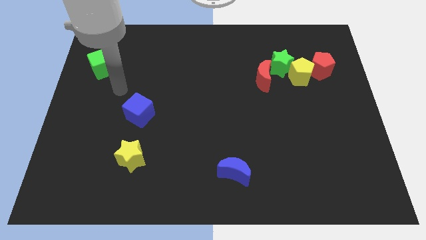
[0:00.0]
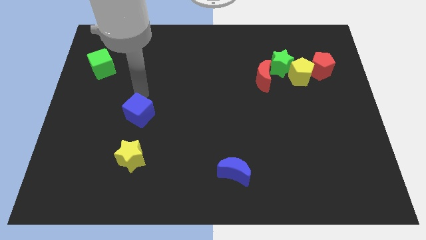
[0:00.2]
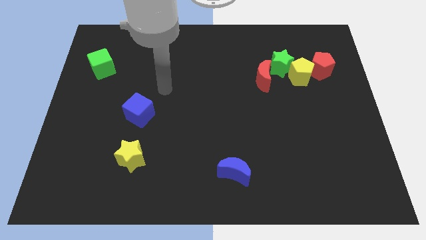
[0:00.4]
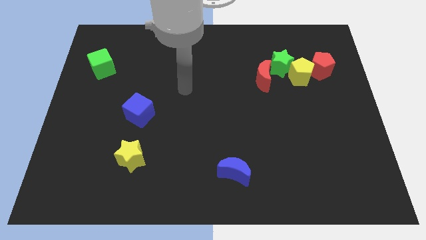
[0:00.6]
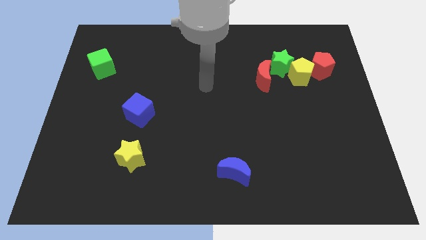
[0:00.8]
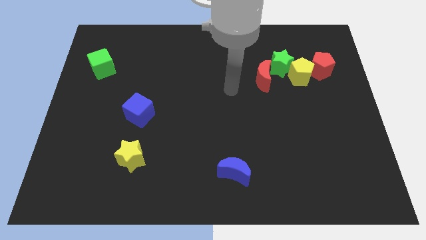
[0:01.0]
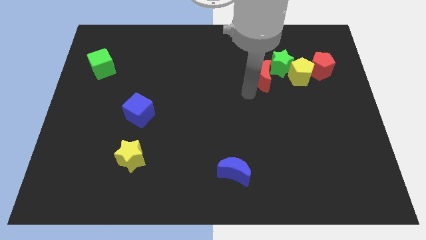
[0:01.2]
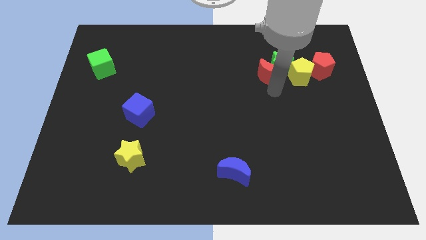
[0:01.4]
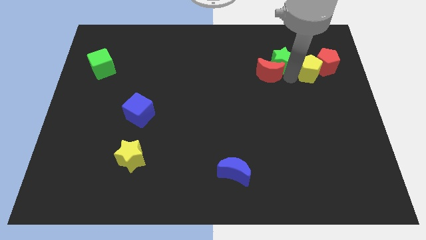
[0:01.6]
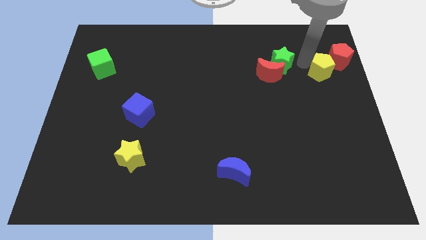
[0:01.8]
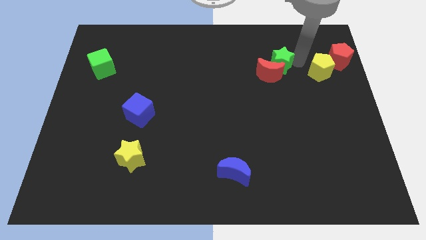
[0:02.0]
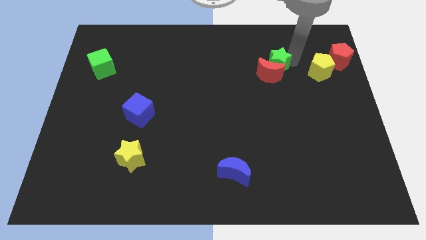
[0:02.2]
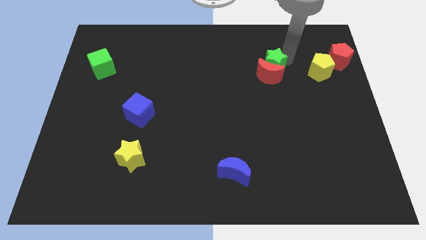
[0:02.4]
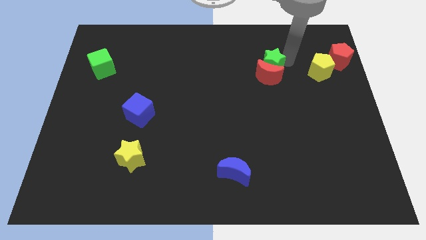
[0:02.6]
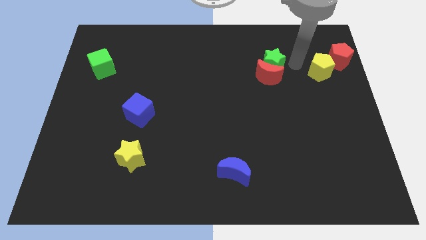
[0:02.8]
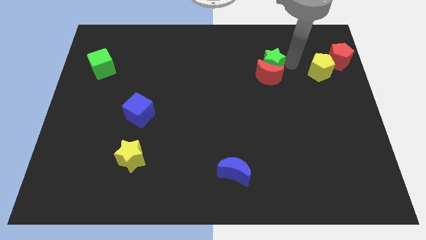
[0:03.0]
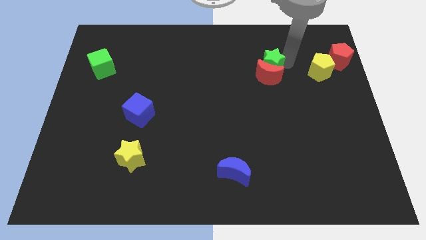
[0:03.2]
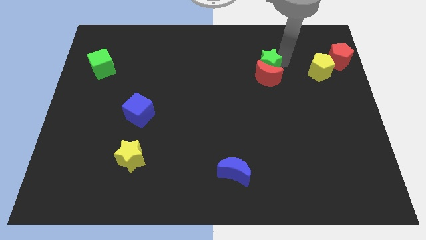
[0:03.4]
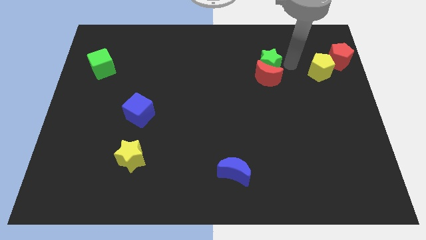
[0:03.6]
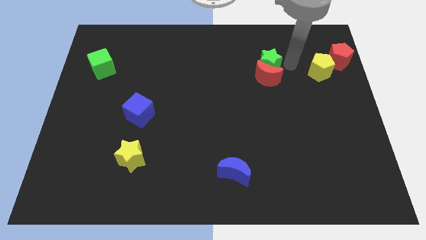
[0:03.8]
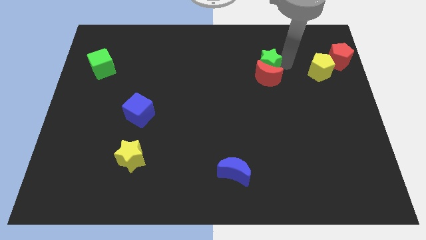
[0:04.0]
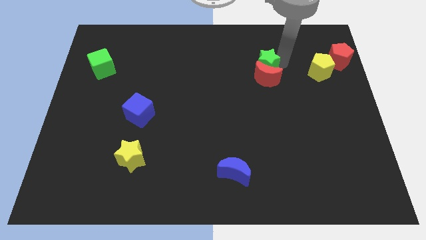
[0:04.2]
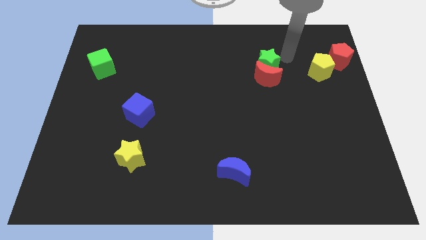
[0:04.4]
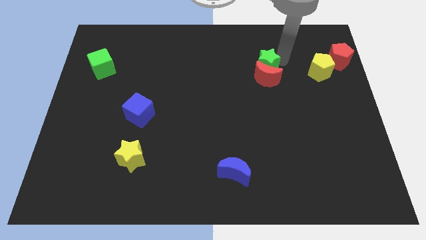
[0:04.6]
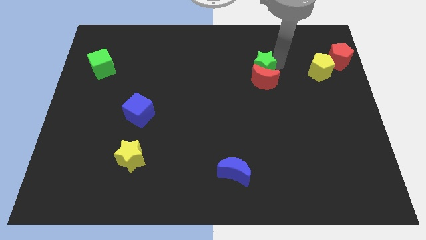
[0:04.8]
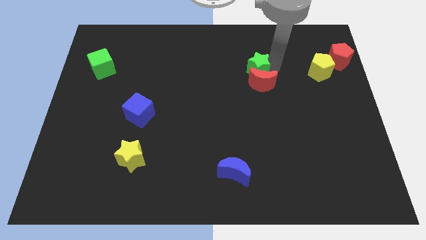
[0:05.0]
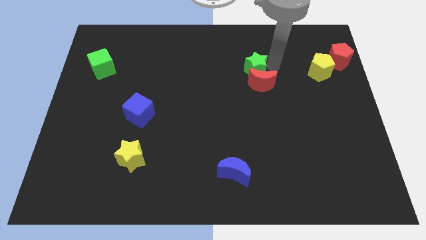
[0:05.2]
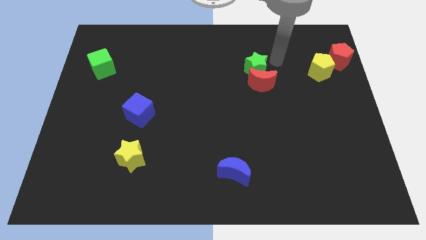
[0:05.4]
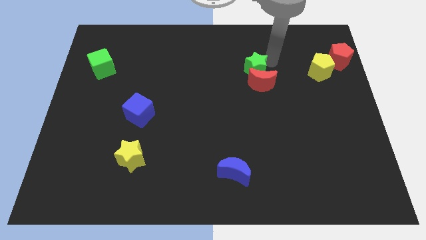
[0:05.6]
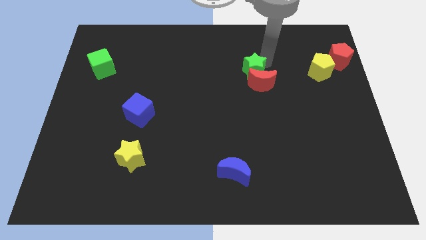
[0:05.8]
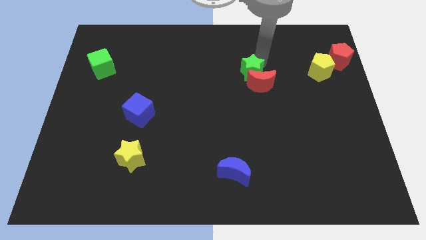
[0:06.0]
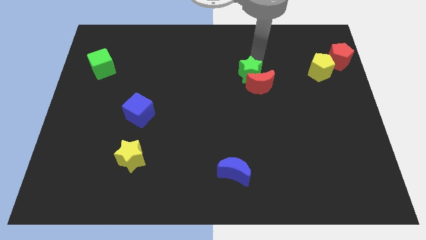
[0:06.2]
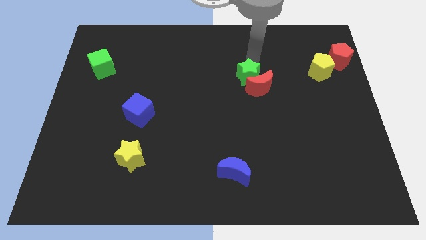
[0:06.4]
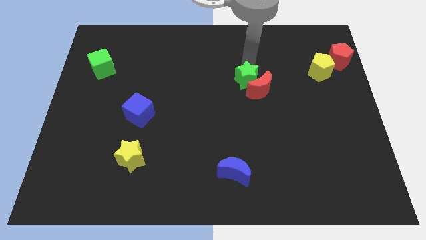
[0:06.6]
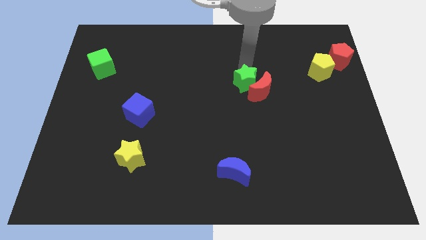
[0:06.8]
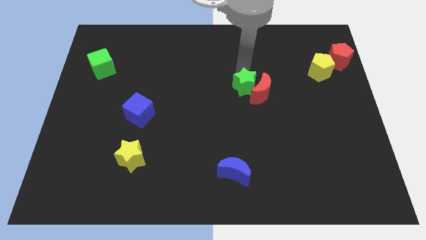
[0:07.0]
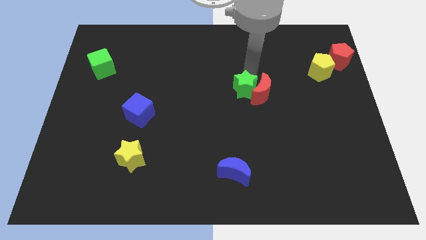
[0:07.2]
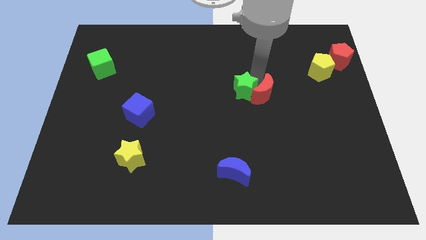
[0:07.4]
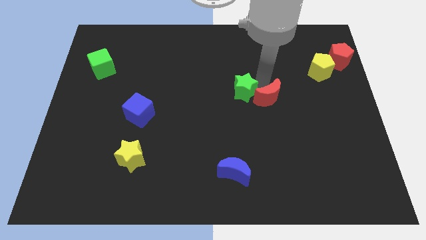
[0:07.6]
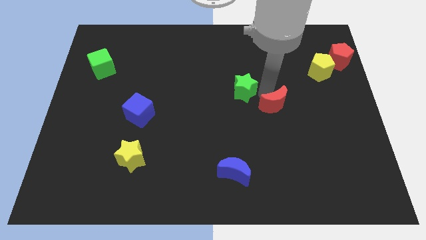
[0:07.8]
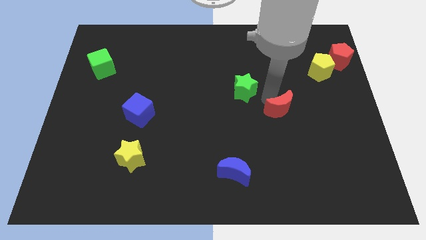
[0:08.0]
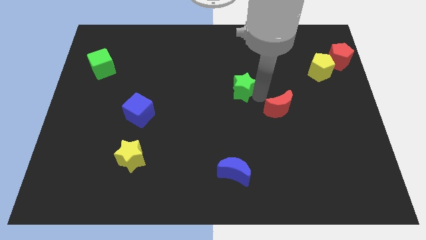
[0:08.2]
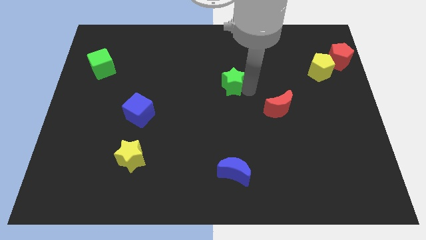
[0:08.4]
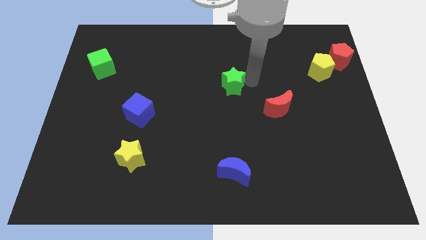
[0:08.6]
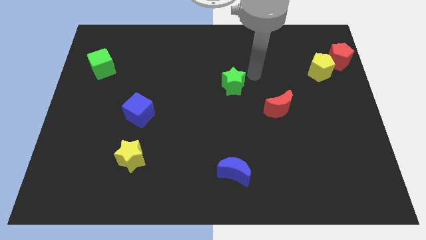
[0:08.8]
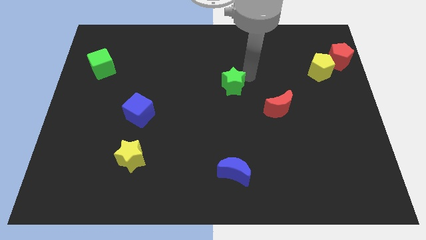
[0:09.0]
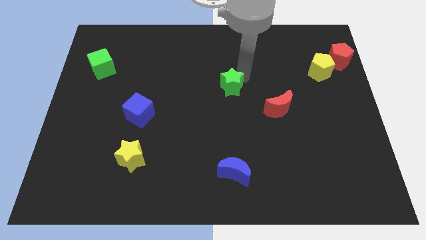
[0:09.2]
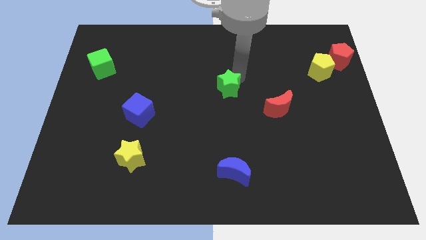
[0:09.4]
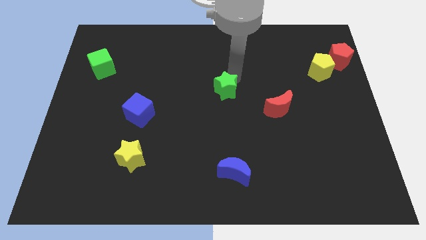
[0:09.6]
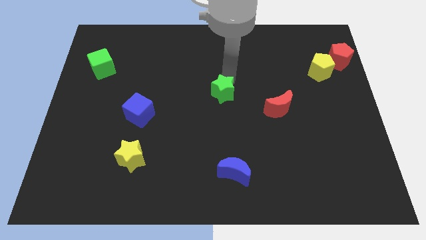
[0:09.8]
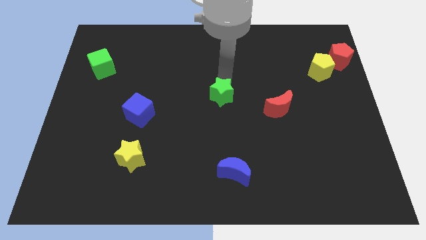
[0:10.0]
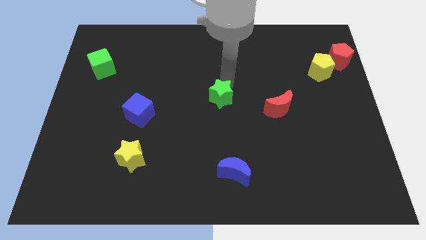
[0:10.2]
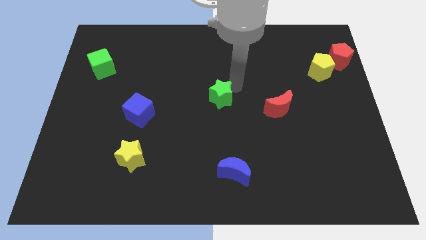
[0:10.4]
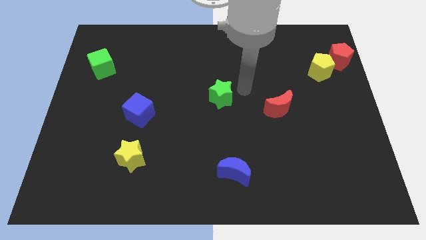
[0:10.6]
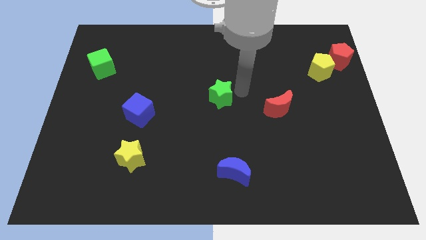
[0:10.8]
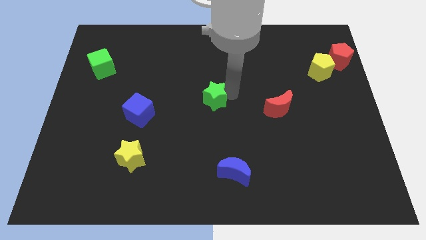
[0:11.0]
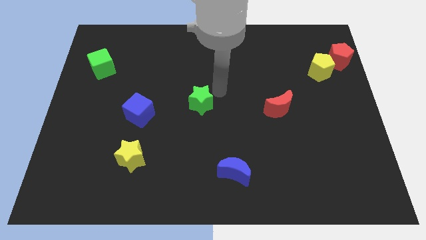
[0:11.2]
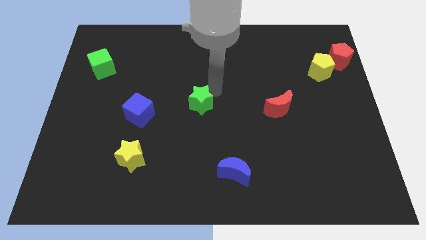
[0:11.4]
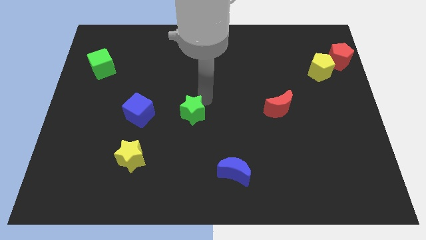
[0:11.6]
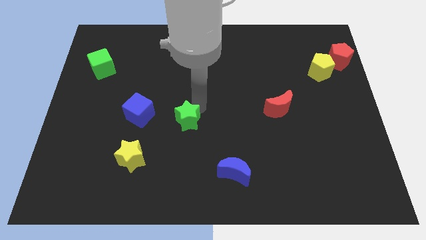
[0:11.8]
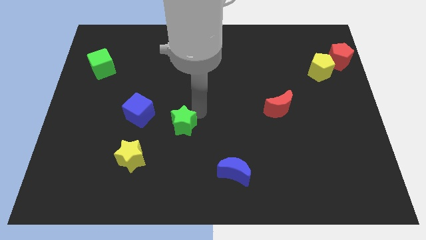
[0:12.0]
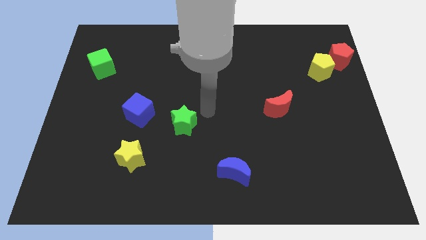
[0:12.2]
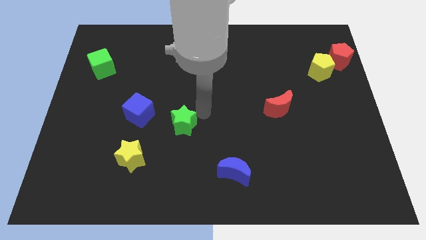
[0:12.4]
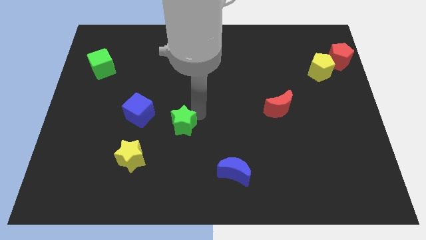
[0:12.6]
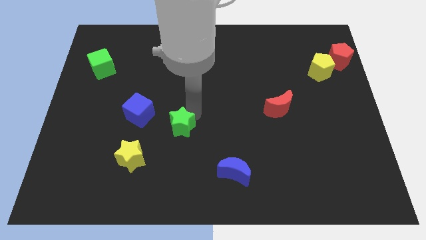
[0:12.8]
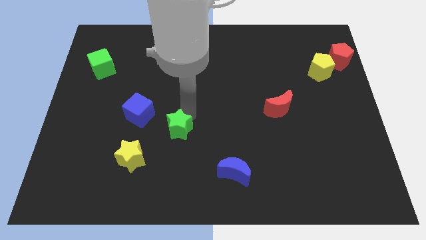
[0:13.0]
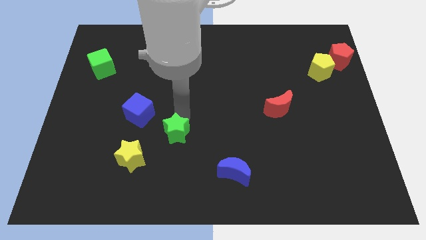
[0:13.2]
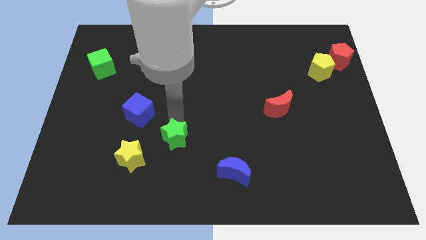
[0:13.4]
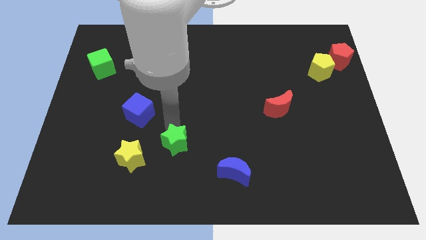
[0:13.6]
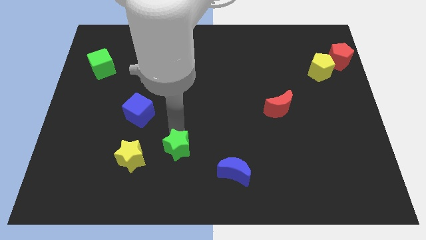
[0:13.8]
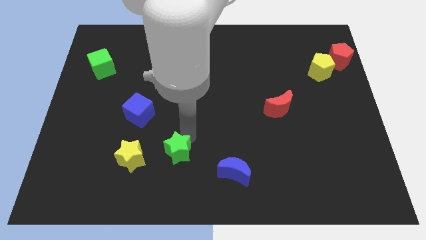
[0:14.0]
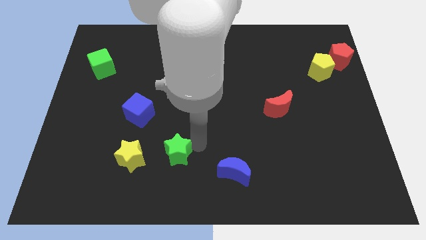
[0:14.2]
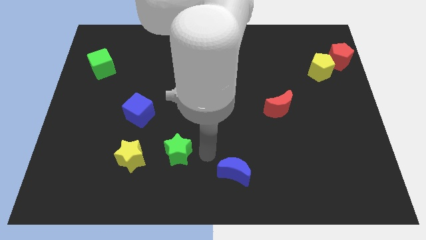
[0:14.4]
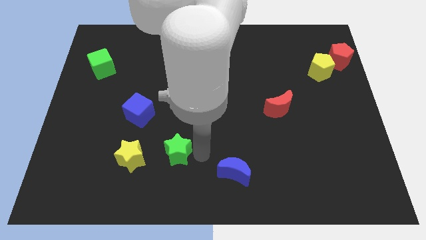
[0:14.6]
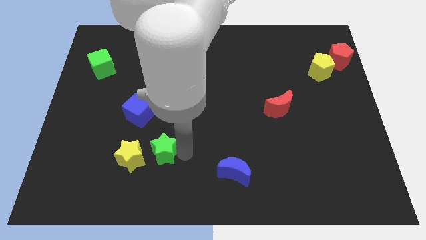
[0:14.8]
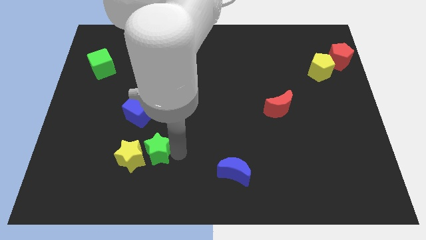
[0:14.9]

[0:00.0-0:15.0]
move the green star next to the yellow star

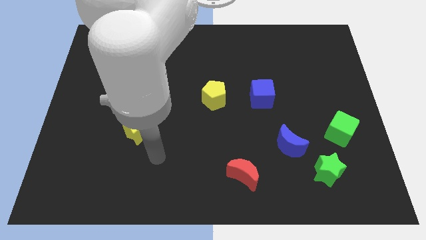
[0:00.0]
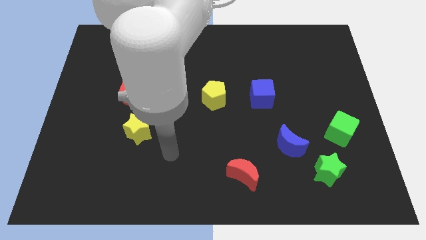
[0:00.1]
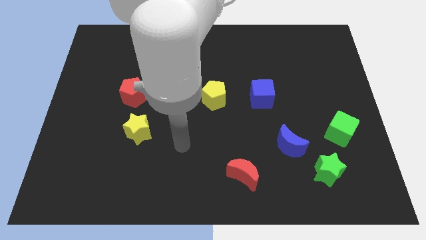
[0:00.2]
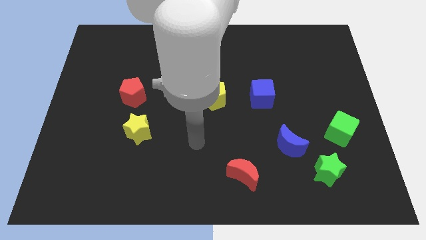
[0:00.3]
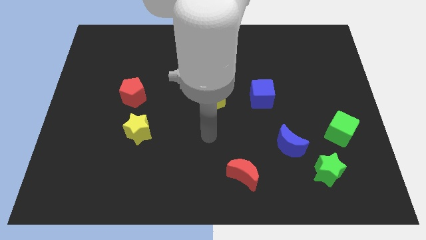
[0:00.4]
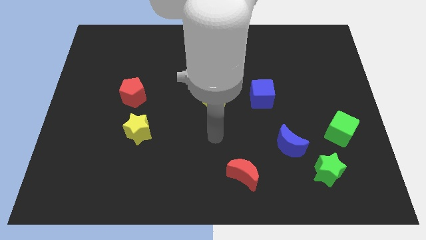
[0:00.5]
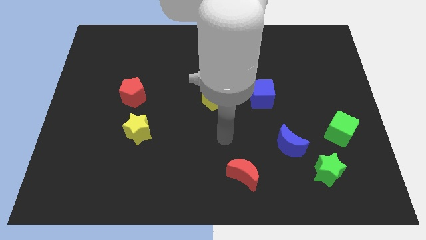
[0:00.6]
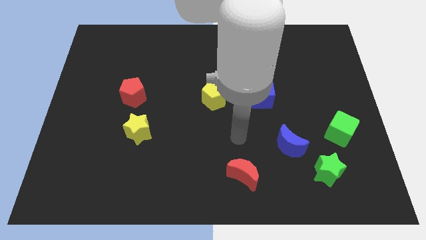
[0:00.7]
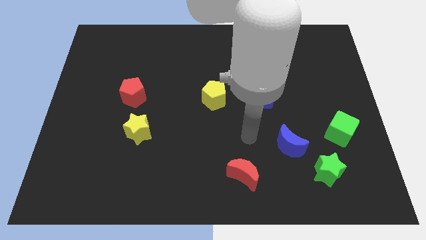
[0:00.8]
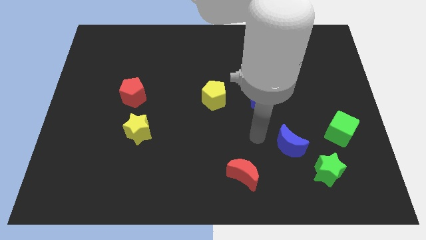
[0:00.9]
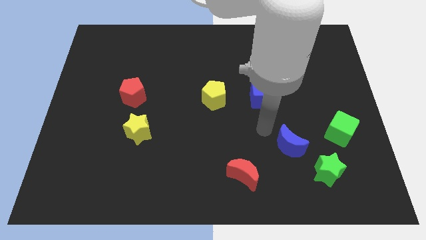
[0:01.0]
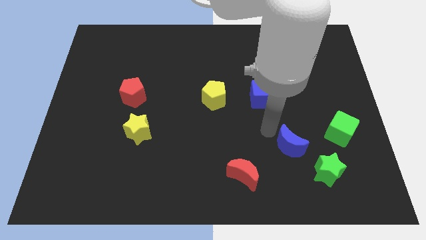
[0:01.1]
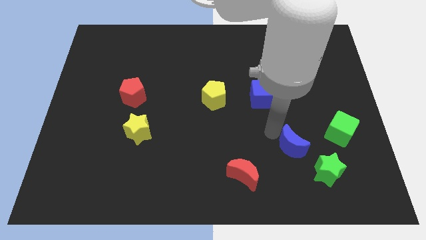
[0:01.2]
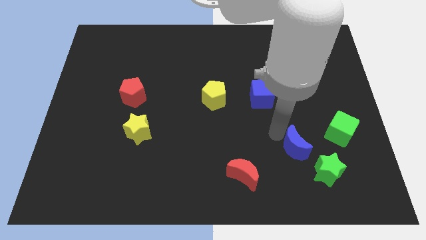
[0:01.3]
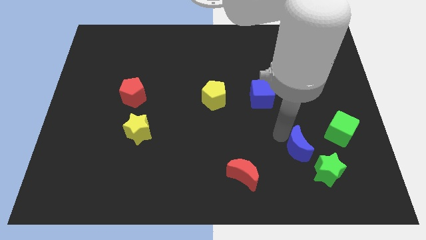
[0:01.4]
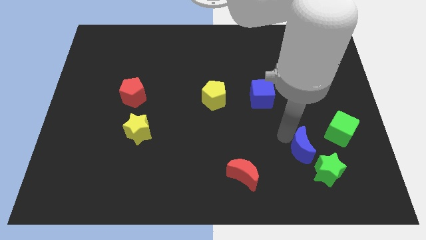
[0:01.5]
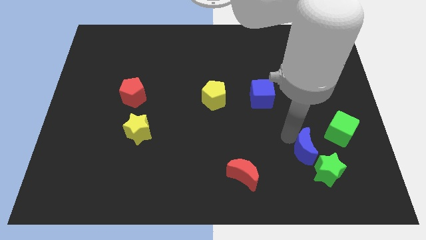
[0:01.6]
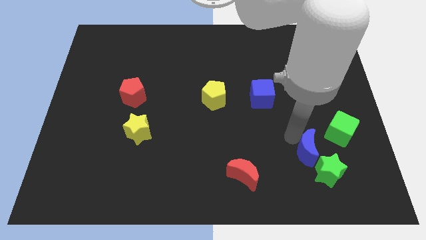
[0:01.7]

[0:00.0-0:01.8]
push the blue moon towards the green star
